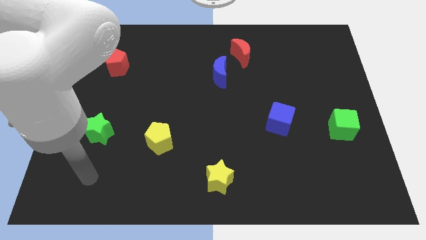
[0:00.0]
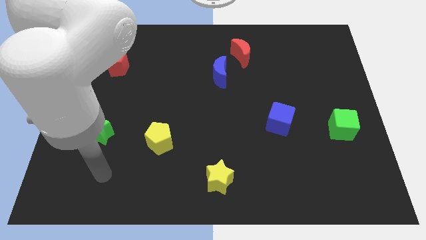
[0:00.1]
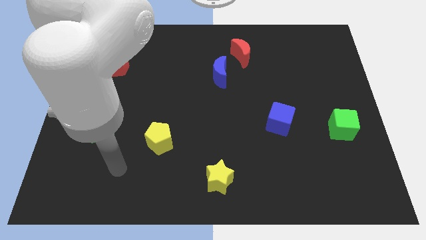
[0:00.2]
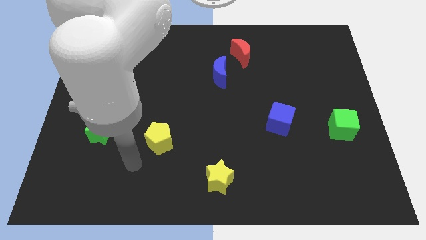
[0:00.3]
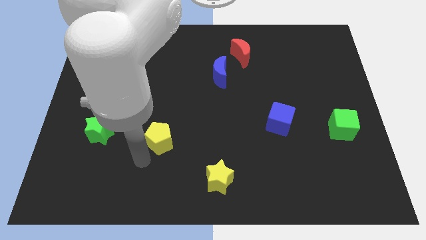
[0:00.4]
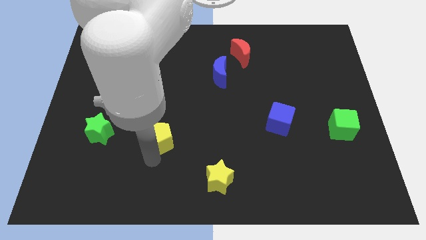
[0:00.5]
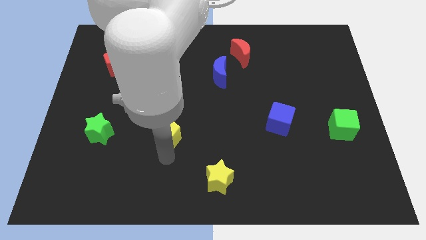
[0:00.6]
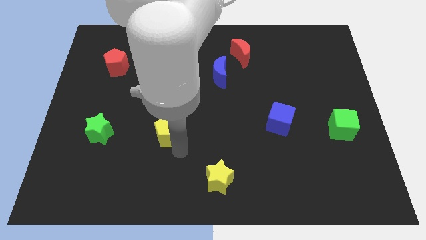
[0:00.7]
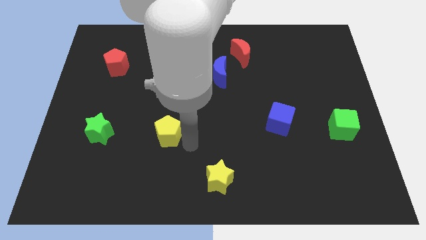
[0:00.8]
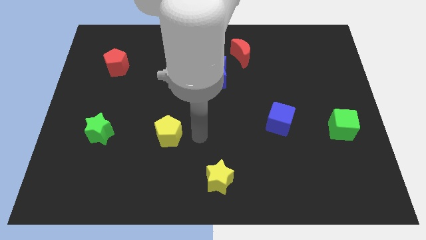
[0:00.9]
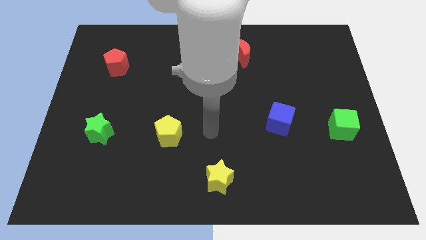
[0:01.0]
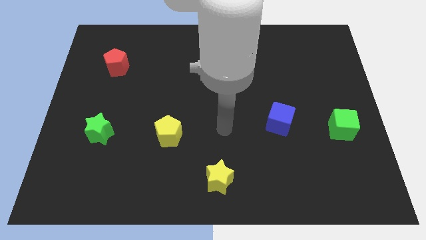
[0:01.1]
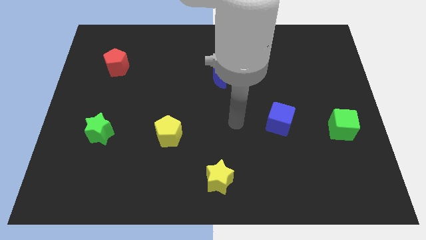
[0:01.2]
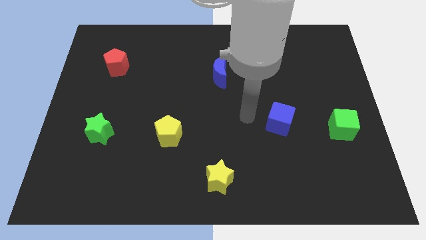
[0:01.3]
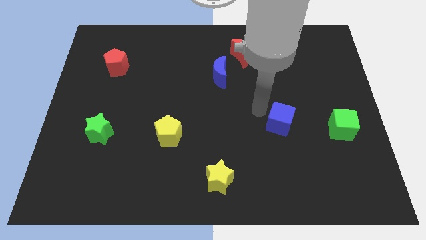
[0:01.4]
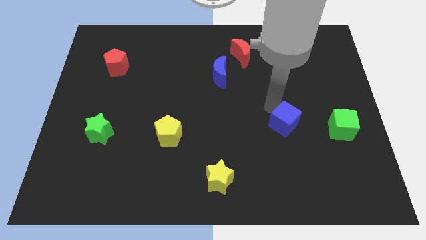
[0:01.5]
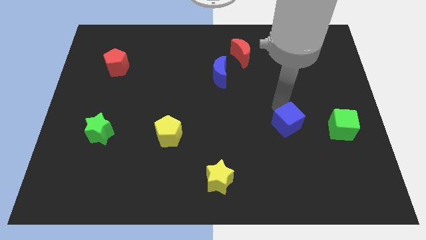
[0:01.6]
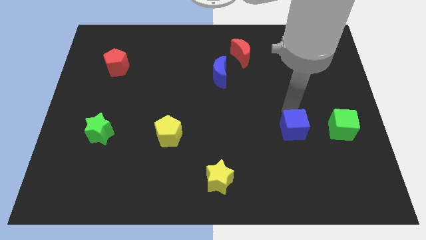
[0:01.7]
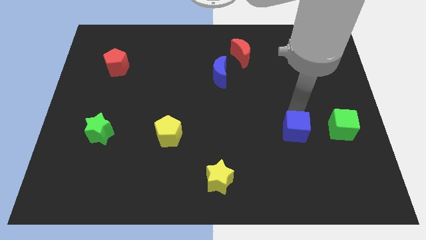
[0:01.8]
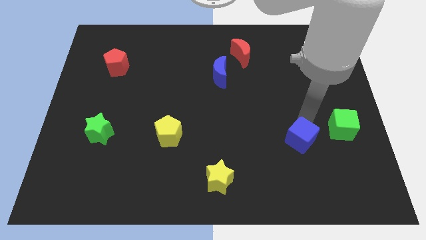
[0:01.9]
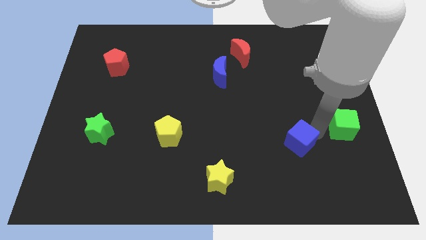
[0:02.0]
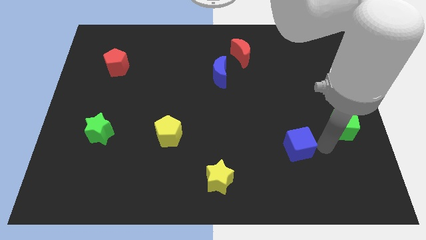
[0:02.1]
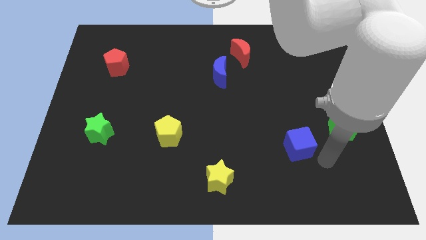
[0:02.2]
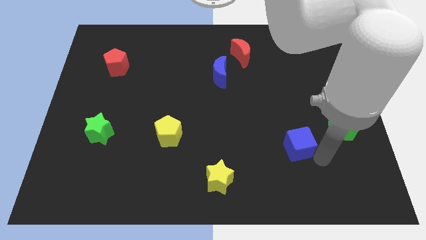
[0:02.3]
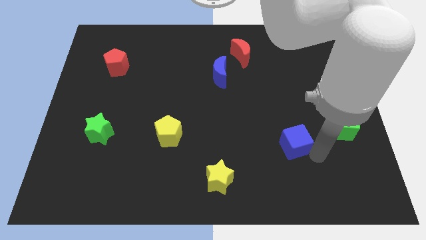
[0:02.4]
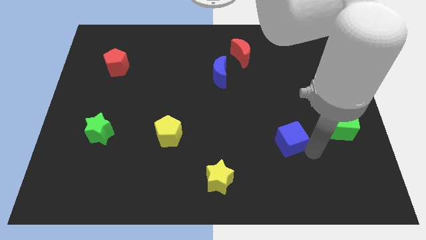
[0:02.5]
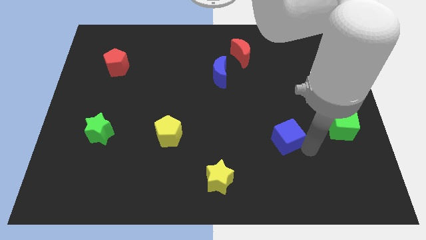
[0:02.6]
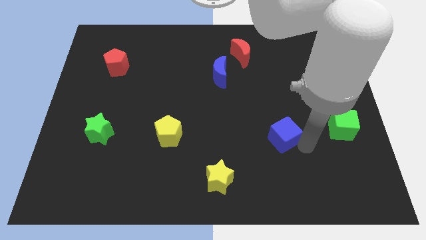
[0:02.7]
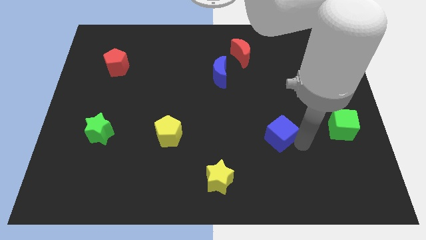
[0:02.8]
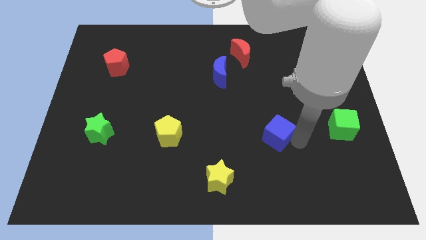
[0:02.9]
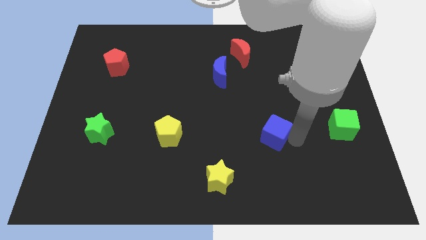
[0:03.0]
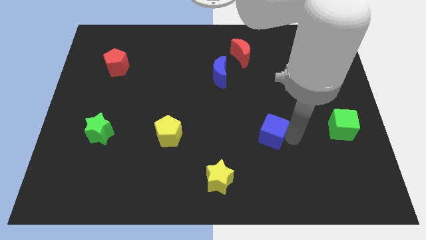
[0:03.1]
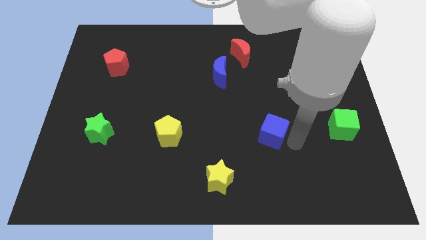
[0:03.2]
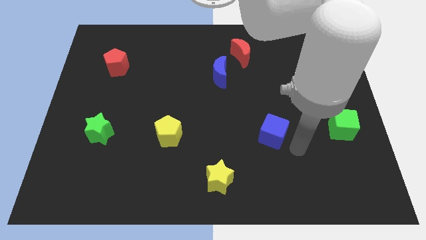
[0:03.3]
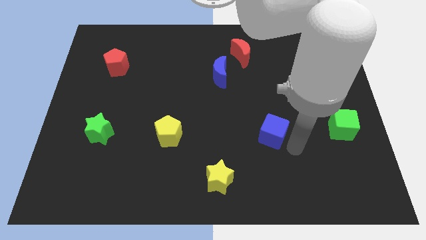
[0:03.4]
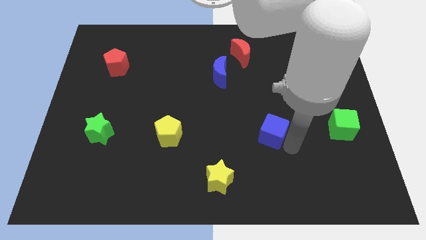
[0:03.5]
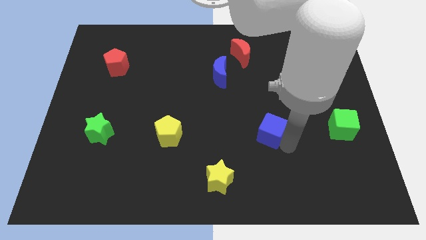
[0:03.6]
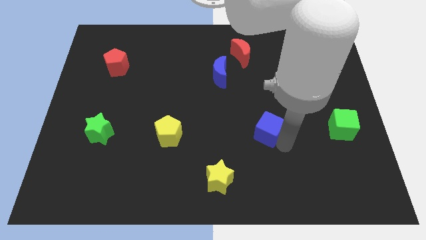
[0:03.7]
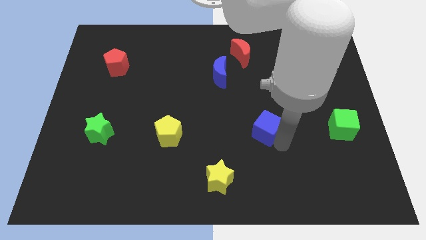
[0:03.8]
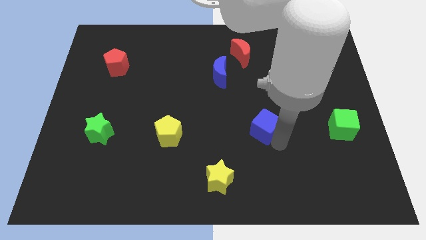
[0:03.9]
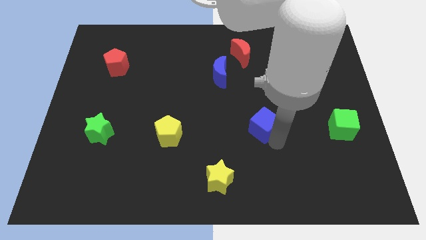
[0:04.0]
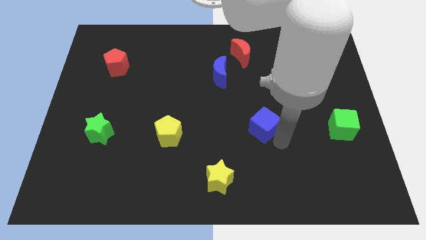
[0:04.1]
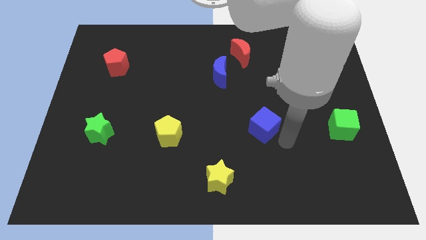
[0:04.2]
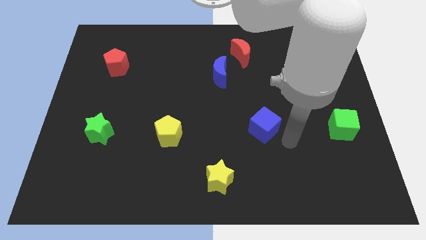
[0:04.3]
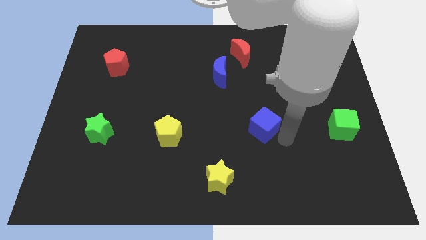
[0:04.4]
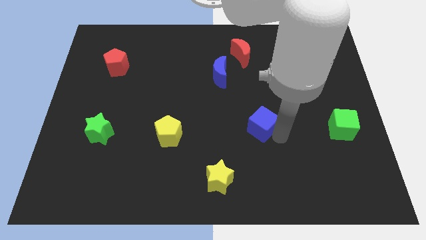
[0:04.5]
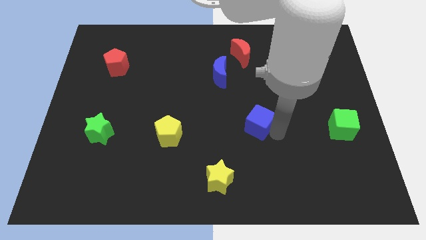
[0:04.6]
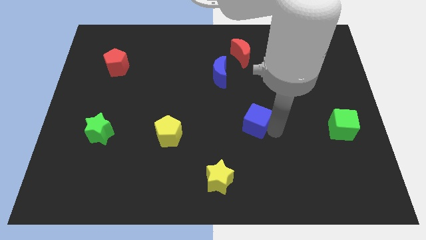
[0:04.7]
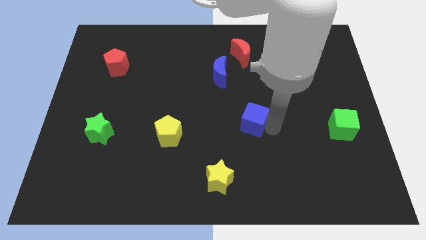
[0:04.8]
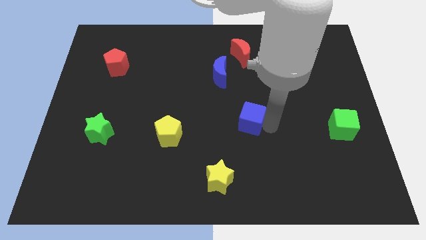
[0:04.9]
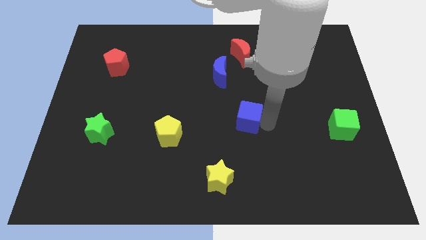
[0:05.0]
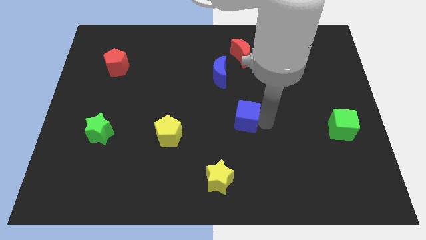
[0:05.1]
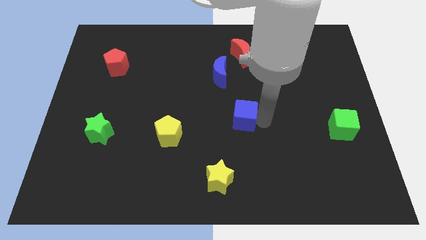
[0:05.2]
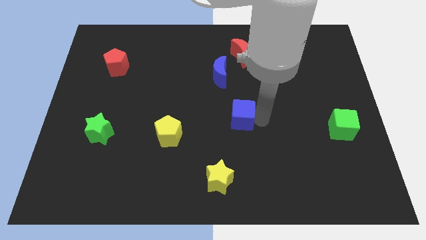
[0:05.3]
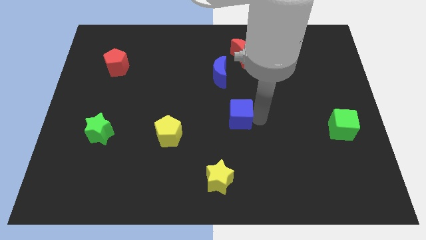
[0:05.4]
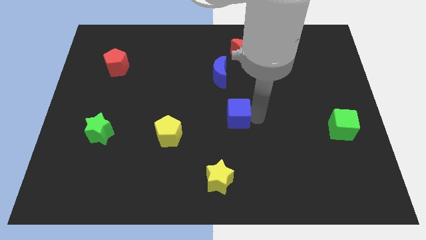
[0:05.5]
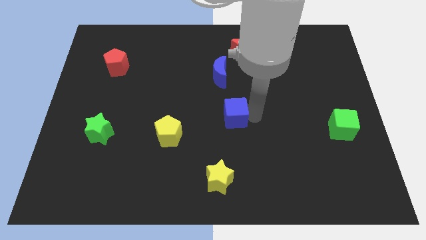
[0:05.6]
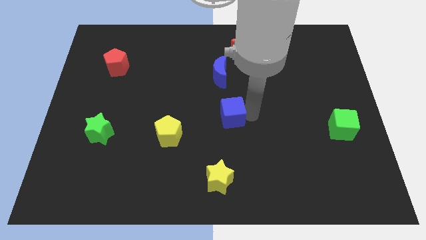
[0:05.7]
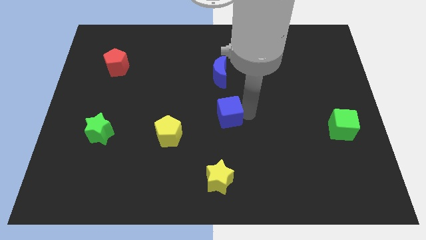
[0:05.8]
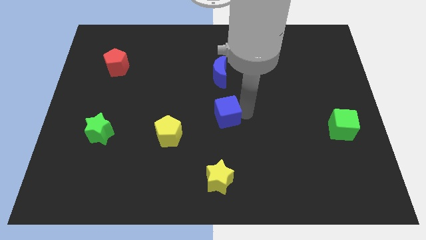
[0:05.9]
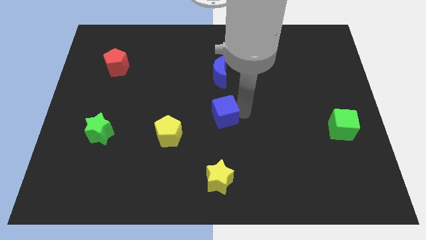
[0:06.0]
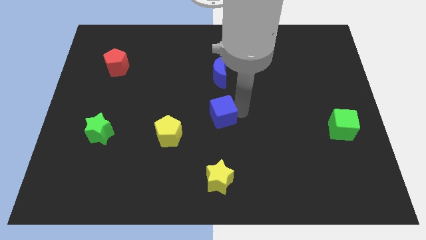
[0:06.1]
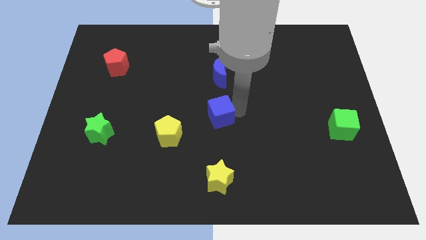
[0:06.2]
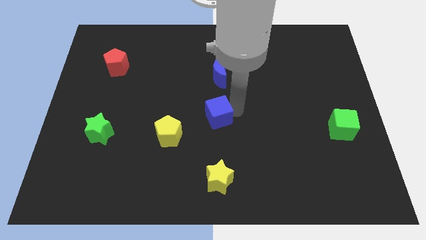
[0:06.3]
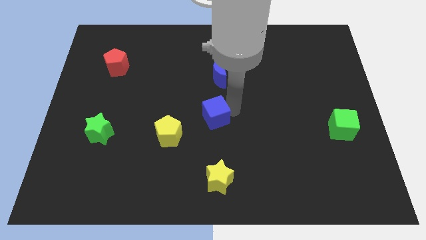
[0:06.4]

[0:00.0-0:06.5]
slide the blue cube to the top right side of the yellow pentagon

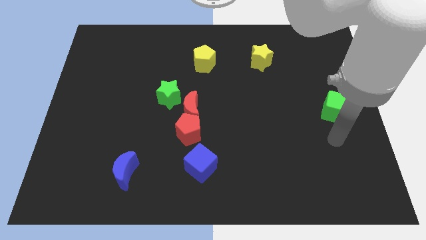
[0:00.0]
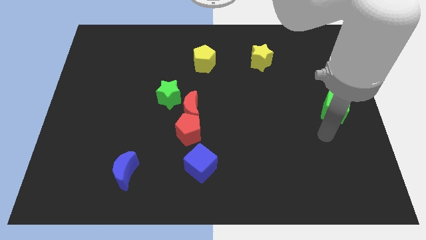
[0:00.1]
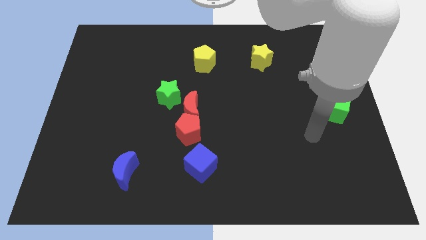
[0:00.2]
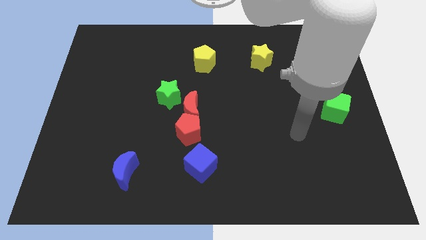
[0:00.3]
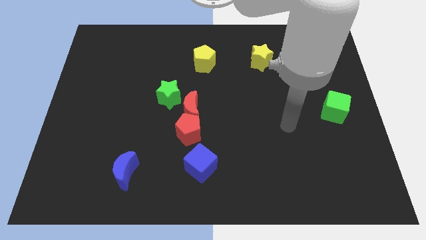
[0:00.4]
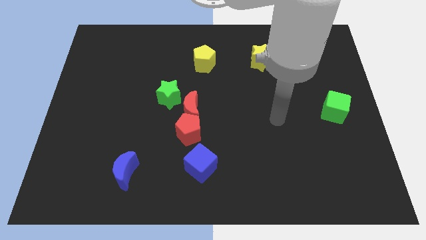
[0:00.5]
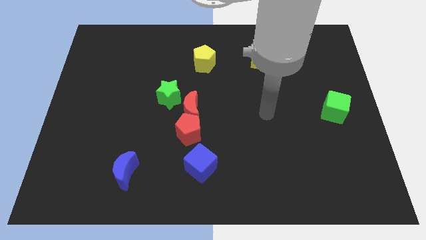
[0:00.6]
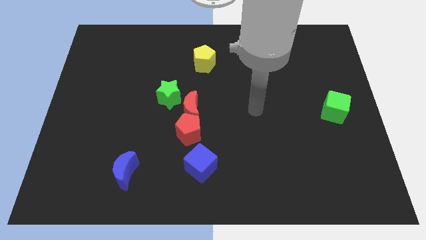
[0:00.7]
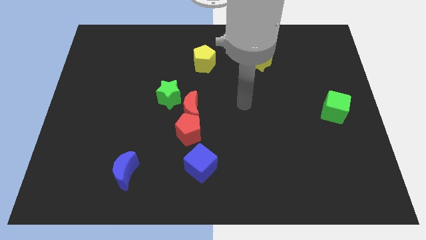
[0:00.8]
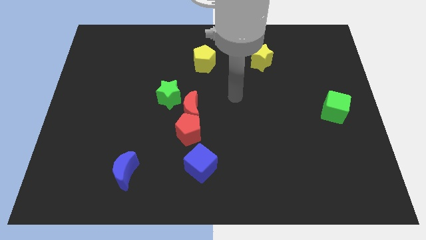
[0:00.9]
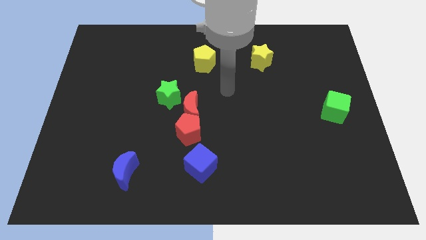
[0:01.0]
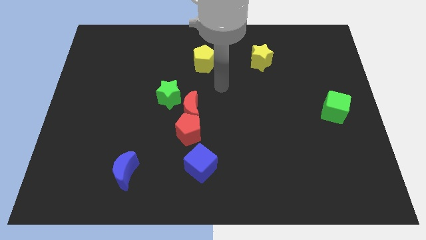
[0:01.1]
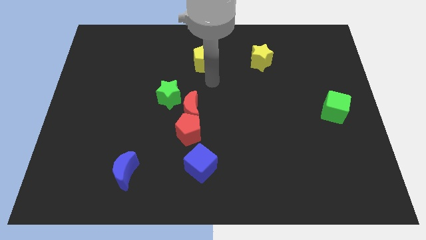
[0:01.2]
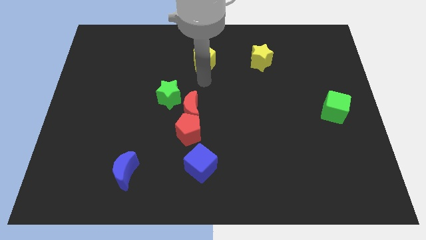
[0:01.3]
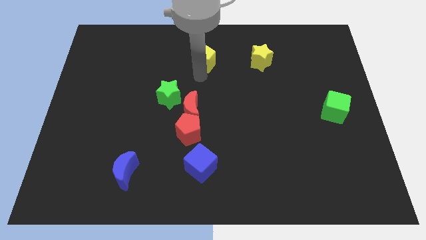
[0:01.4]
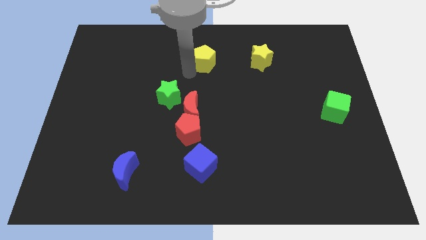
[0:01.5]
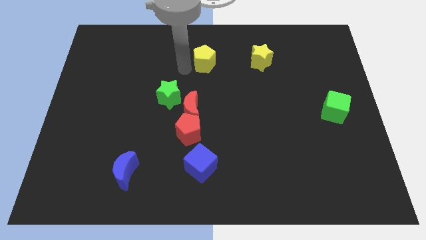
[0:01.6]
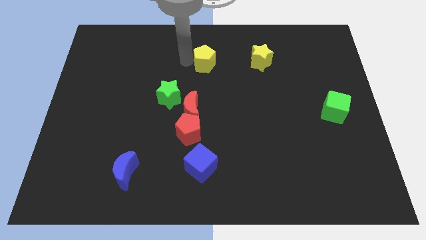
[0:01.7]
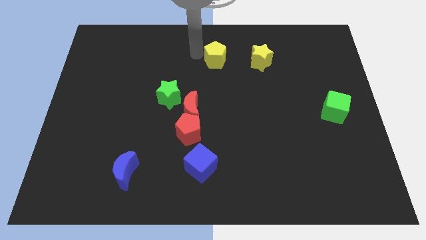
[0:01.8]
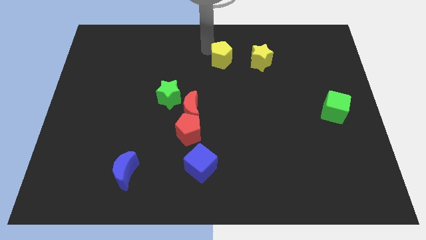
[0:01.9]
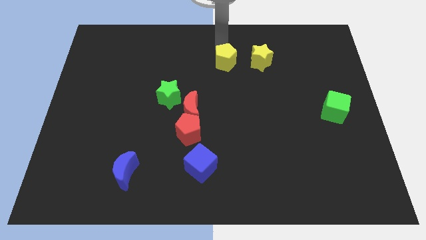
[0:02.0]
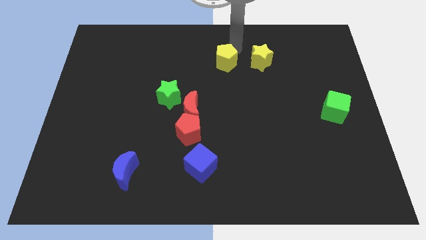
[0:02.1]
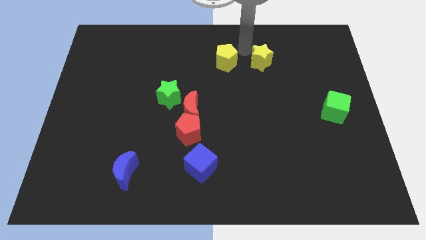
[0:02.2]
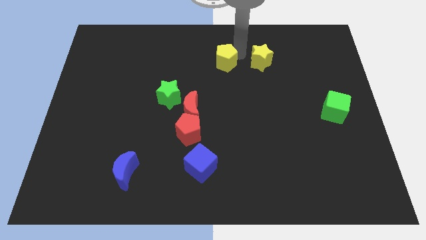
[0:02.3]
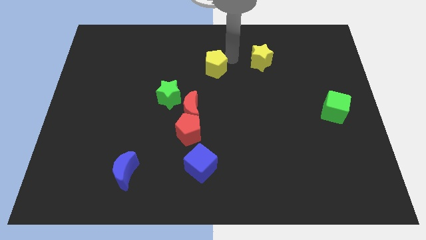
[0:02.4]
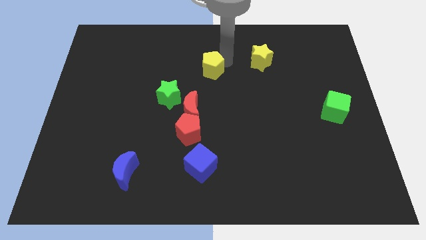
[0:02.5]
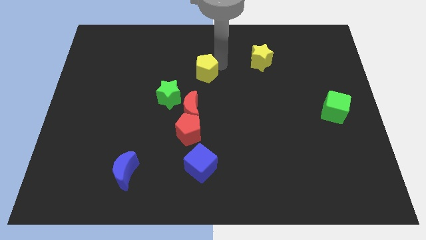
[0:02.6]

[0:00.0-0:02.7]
move the yellow pentagon above the red moon
